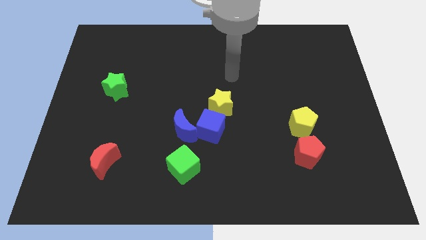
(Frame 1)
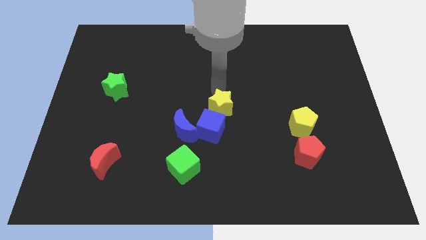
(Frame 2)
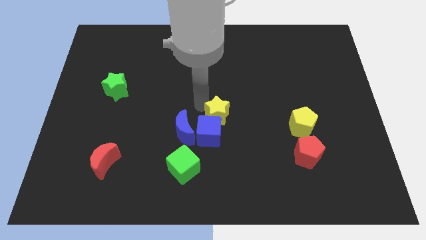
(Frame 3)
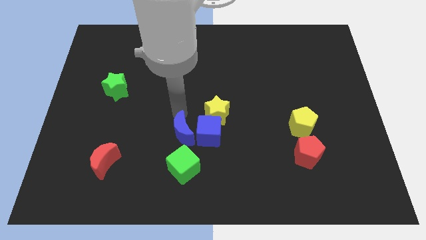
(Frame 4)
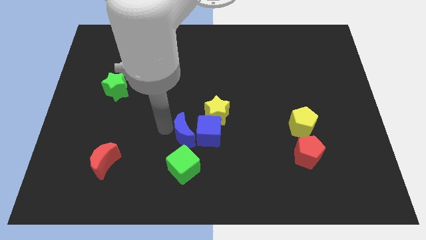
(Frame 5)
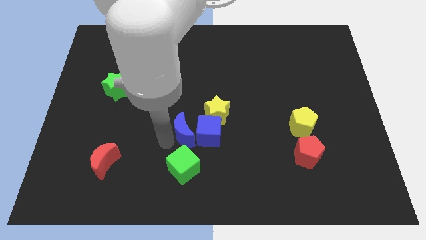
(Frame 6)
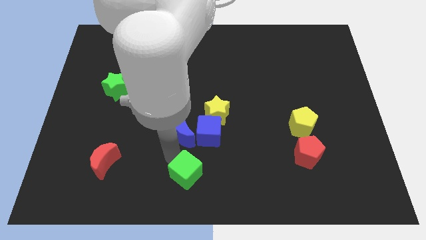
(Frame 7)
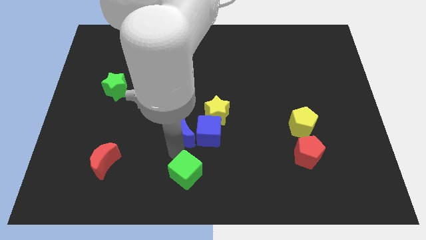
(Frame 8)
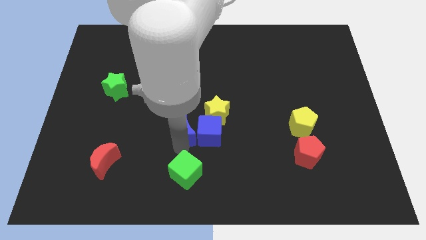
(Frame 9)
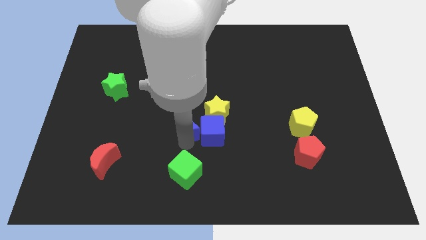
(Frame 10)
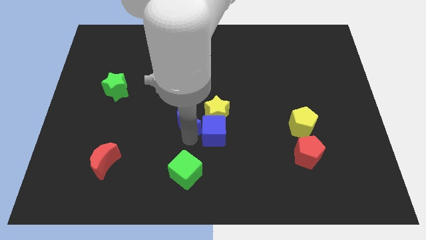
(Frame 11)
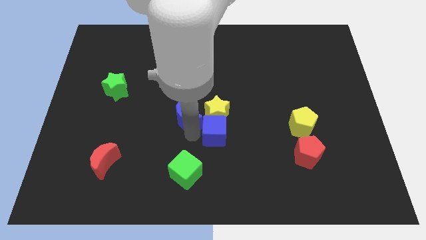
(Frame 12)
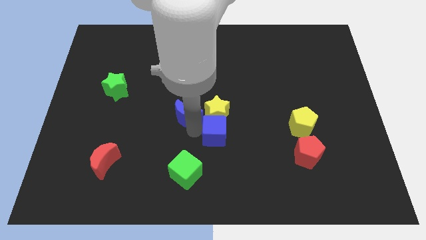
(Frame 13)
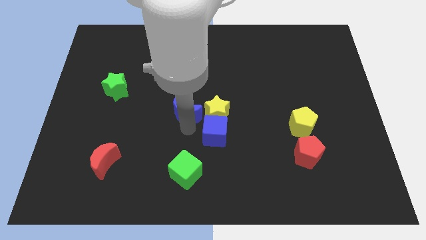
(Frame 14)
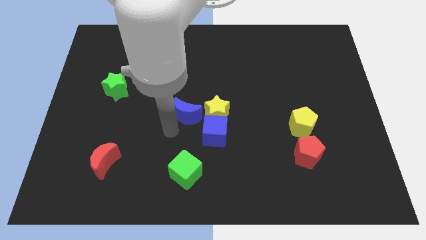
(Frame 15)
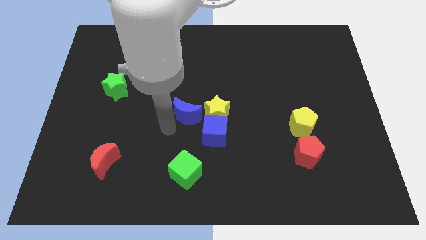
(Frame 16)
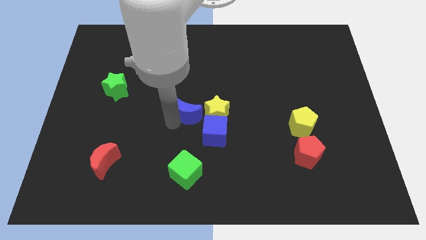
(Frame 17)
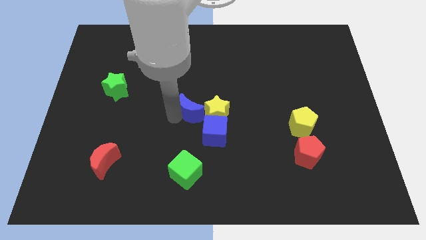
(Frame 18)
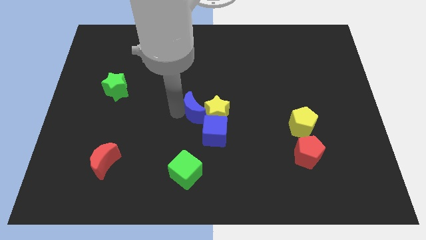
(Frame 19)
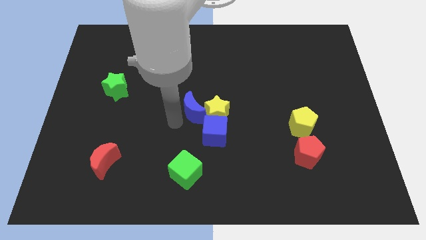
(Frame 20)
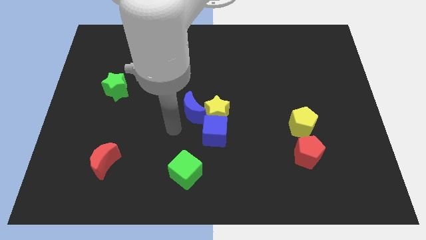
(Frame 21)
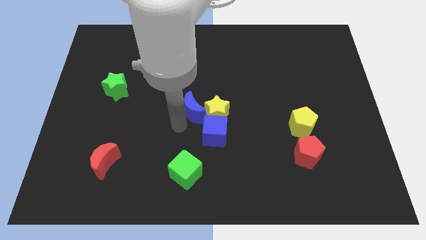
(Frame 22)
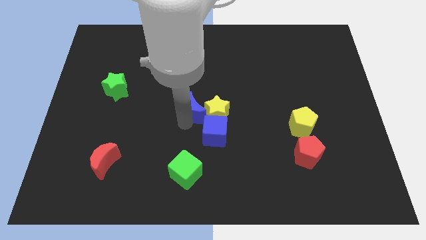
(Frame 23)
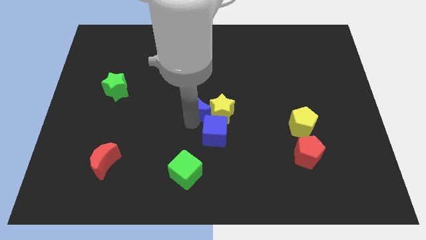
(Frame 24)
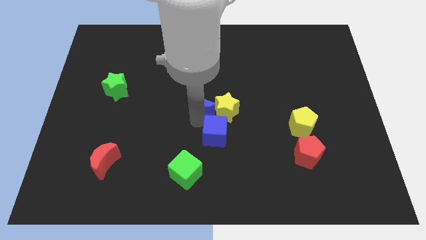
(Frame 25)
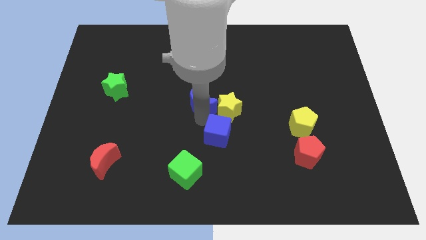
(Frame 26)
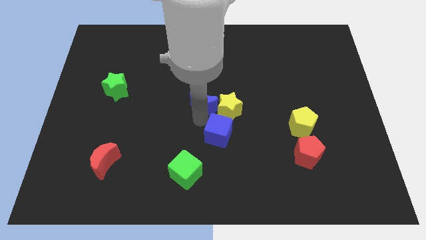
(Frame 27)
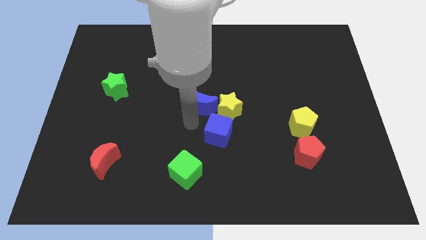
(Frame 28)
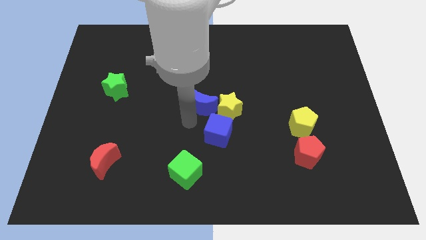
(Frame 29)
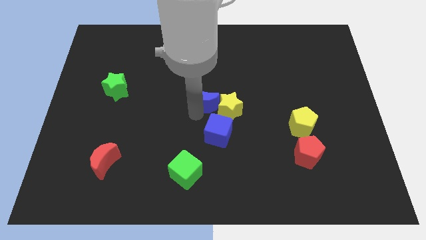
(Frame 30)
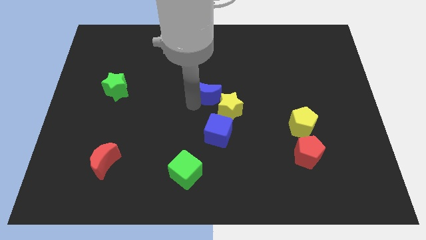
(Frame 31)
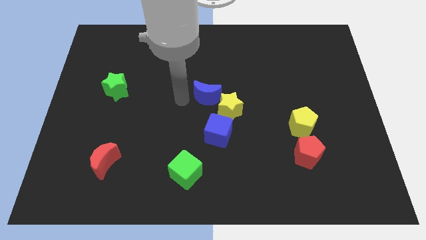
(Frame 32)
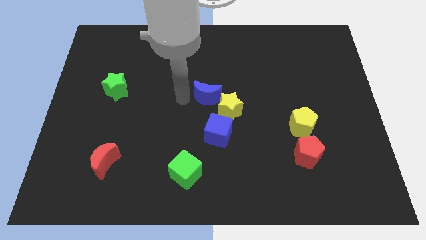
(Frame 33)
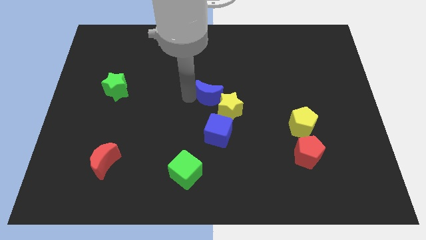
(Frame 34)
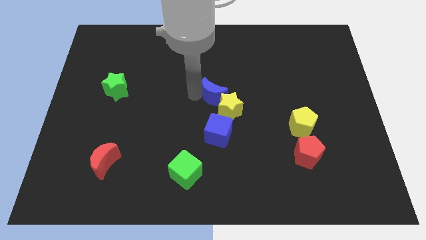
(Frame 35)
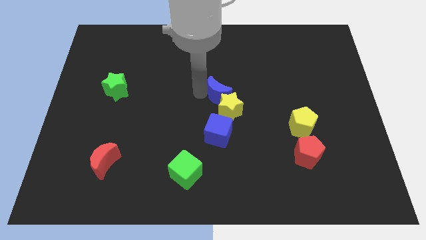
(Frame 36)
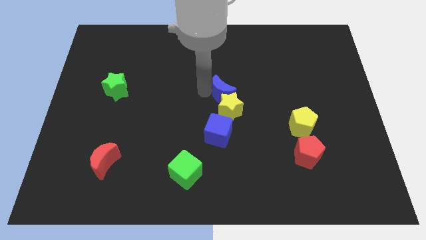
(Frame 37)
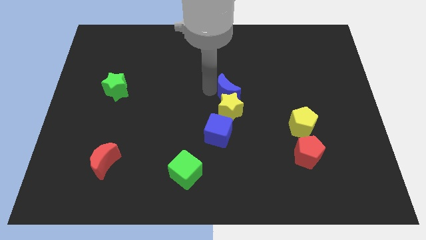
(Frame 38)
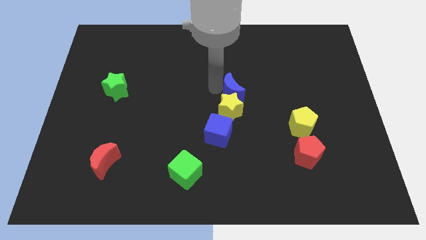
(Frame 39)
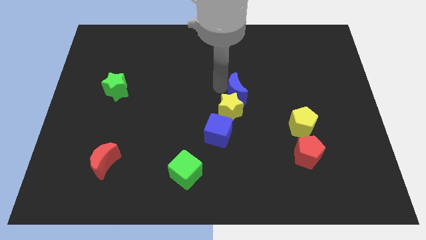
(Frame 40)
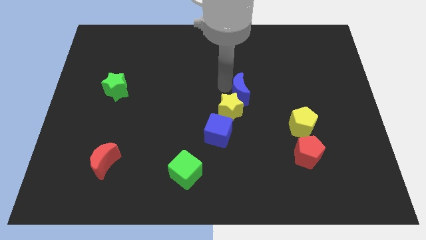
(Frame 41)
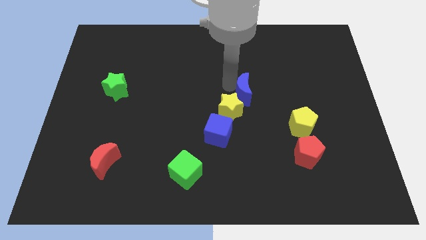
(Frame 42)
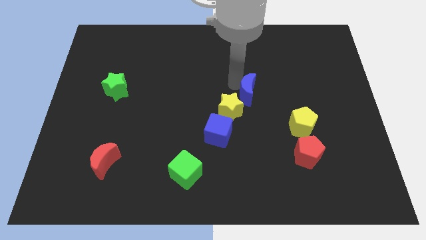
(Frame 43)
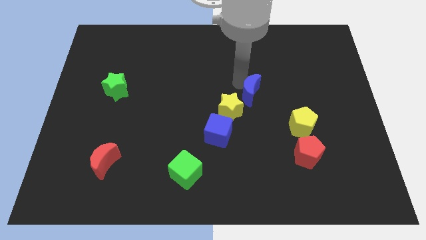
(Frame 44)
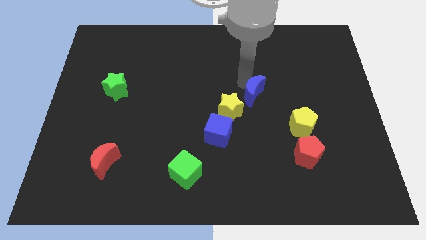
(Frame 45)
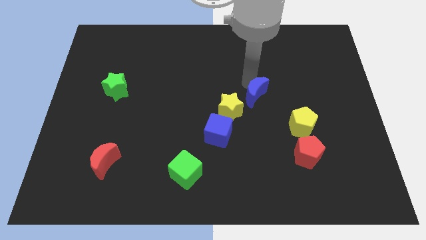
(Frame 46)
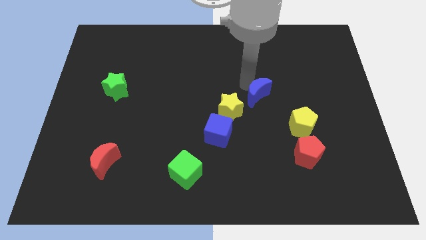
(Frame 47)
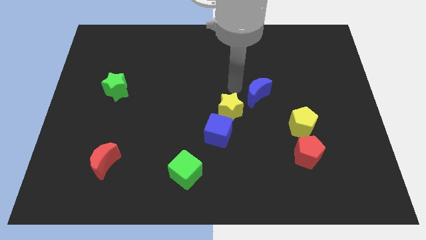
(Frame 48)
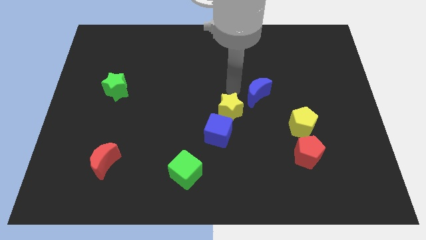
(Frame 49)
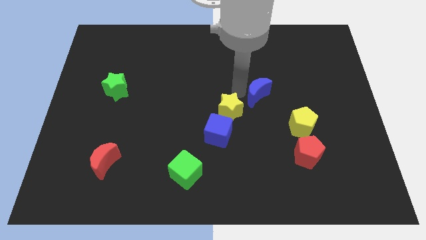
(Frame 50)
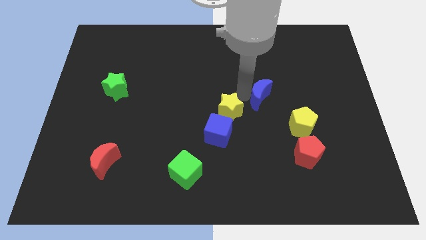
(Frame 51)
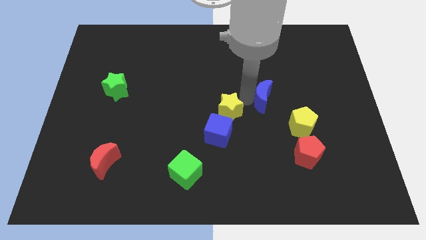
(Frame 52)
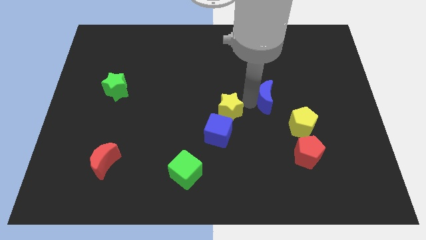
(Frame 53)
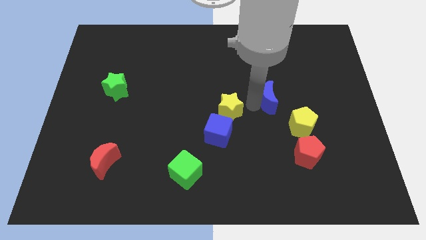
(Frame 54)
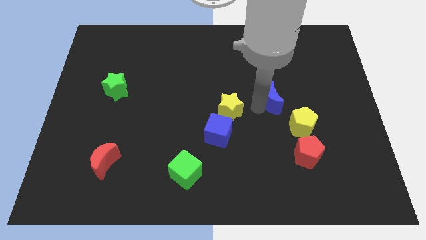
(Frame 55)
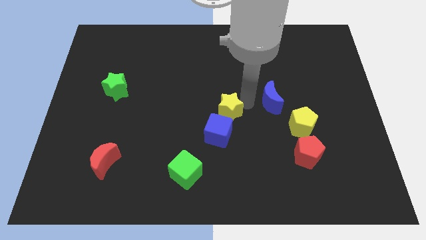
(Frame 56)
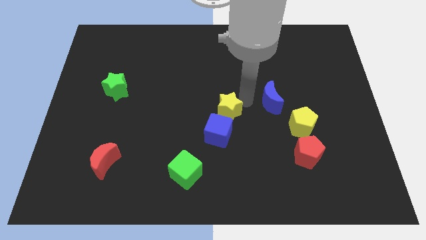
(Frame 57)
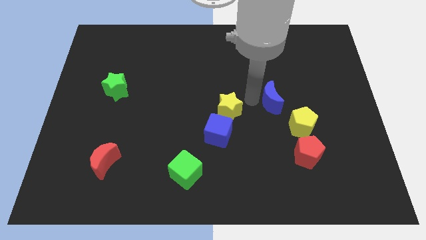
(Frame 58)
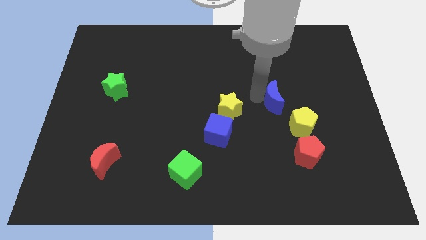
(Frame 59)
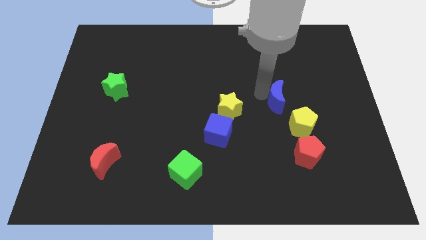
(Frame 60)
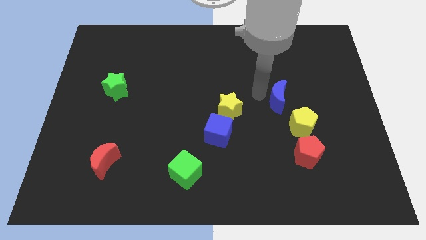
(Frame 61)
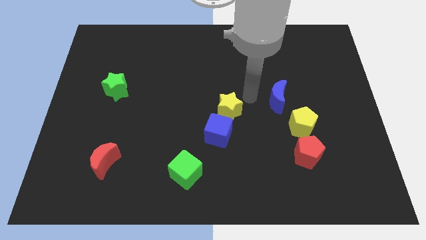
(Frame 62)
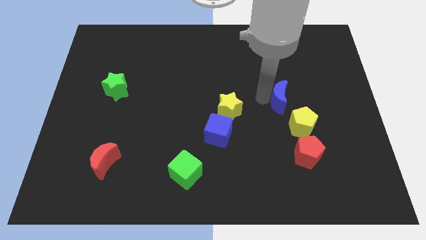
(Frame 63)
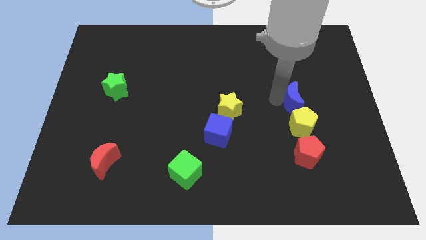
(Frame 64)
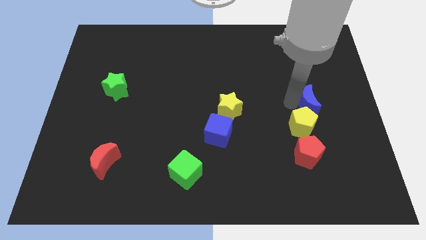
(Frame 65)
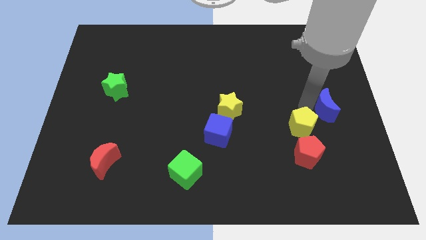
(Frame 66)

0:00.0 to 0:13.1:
slide the blue moon to the right side
